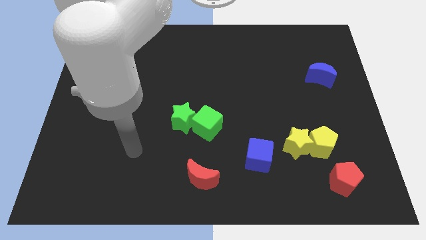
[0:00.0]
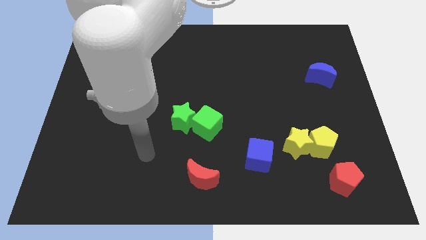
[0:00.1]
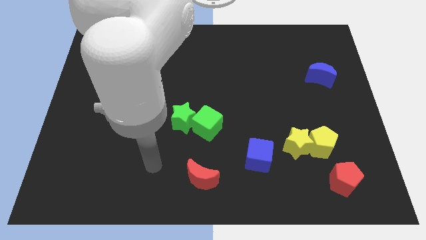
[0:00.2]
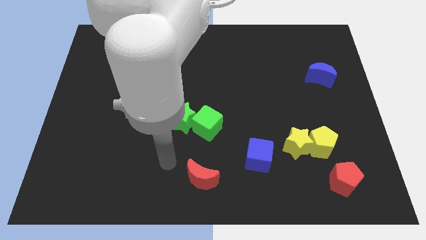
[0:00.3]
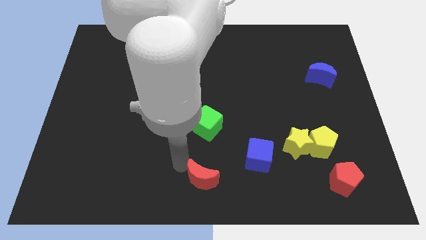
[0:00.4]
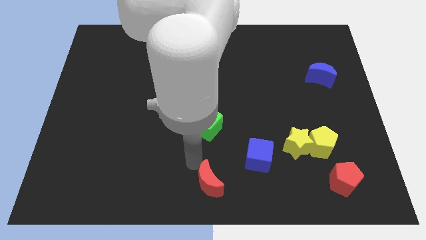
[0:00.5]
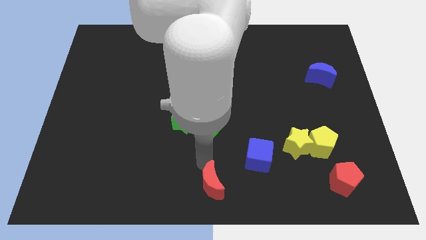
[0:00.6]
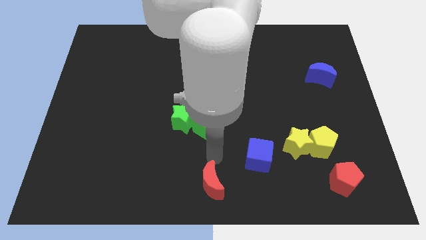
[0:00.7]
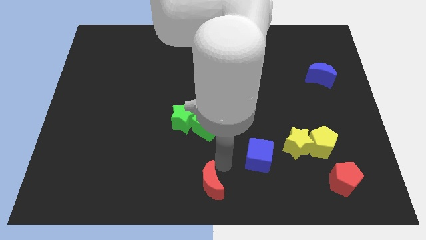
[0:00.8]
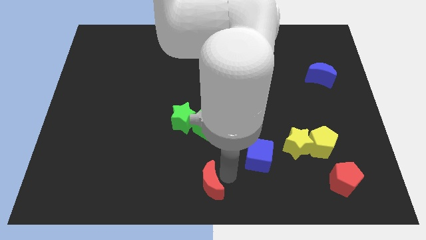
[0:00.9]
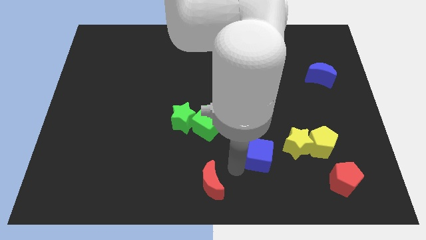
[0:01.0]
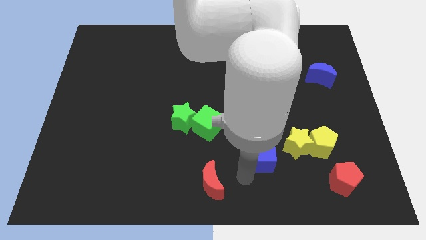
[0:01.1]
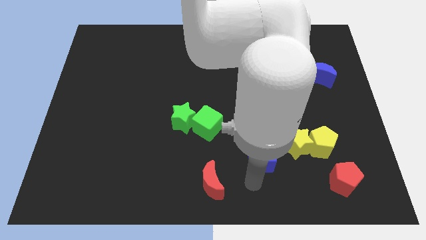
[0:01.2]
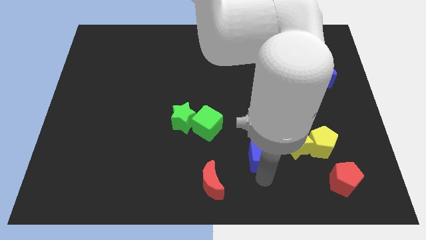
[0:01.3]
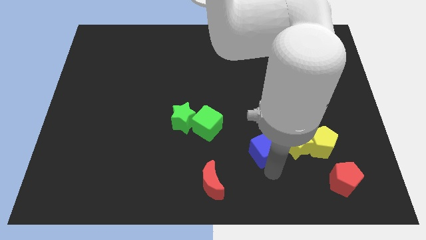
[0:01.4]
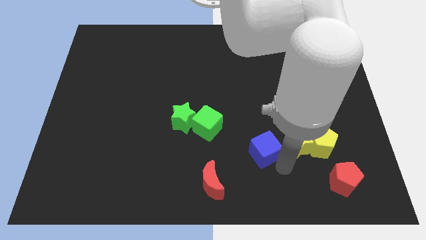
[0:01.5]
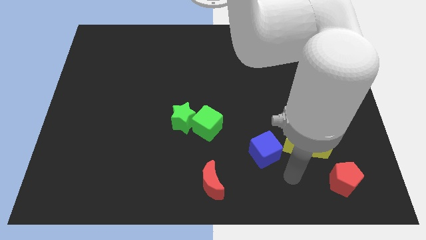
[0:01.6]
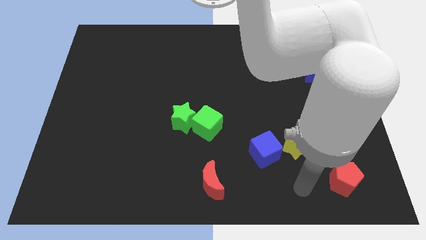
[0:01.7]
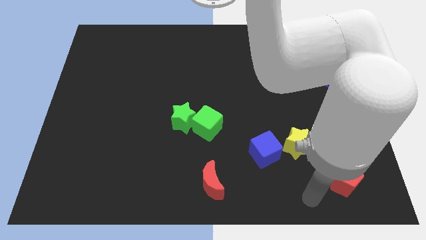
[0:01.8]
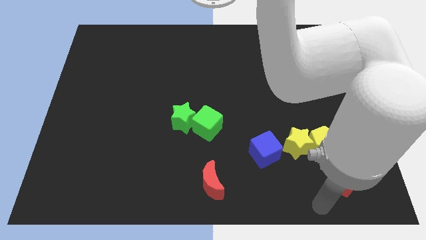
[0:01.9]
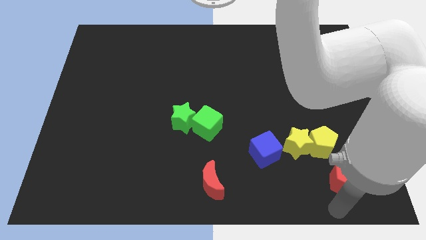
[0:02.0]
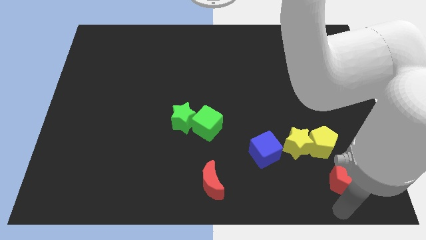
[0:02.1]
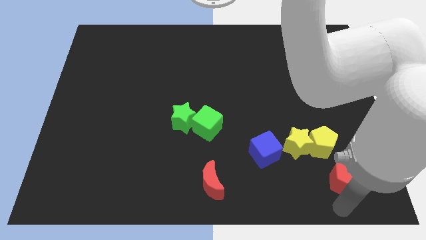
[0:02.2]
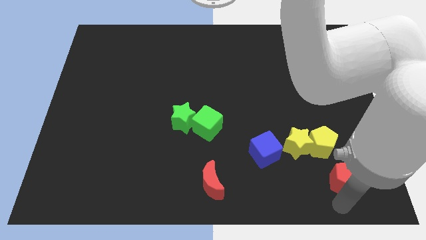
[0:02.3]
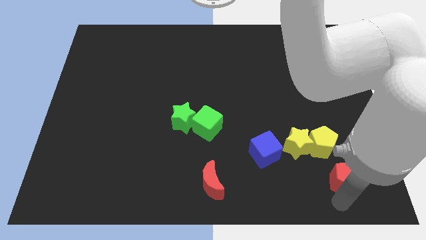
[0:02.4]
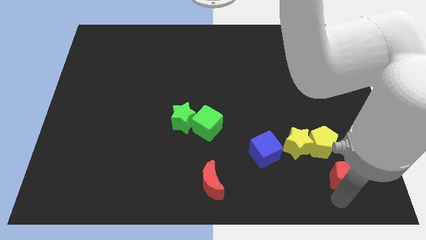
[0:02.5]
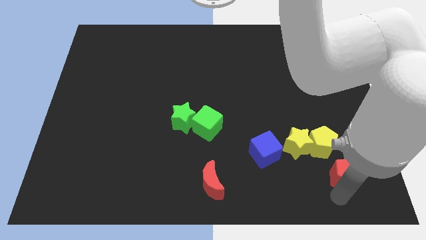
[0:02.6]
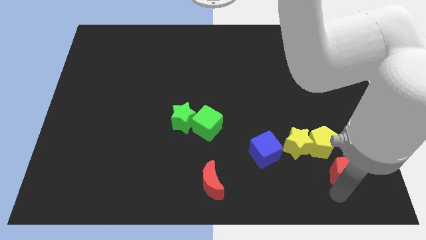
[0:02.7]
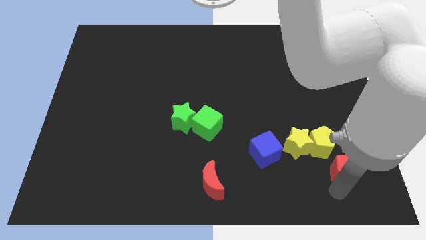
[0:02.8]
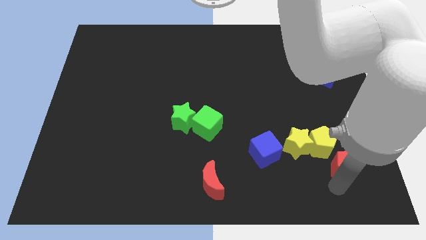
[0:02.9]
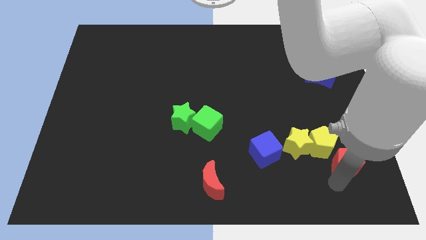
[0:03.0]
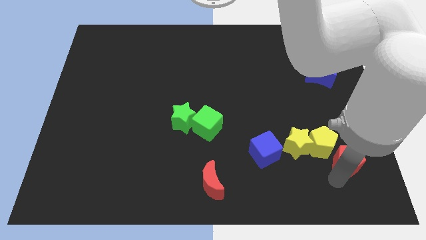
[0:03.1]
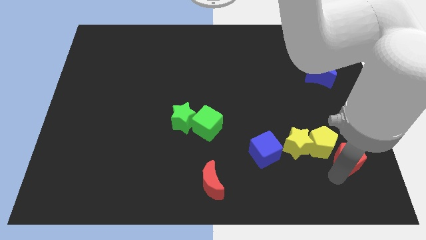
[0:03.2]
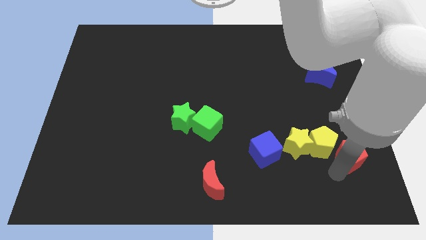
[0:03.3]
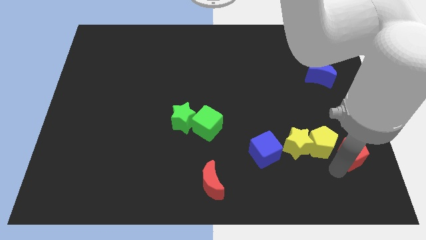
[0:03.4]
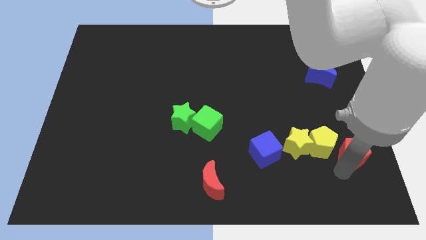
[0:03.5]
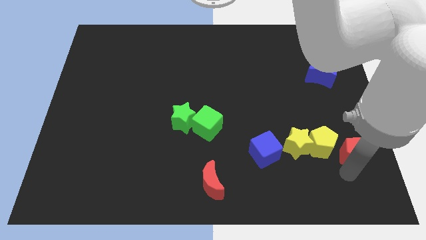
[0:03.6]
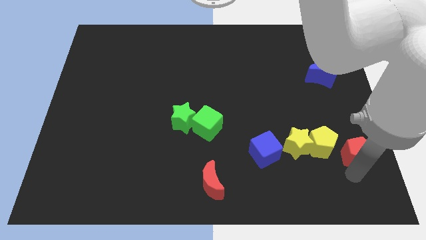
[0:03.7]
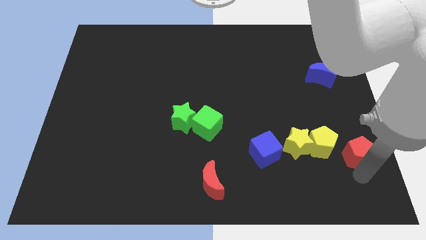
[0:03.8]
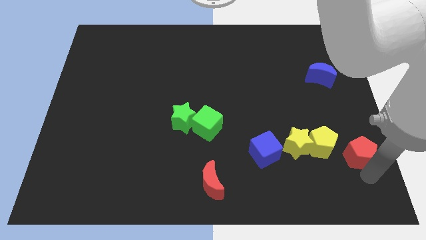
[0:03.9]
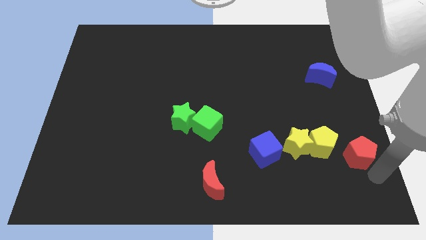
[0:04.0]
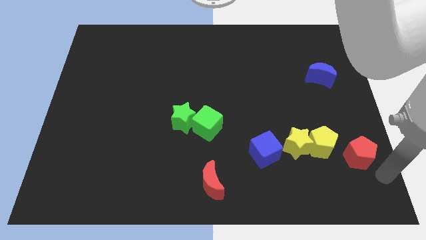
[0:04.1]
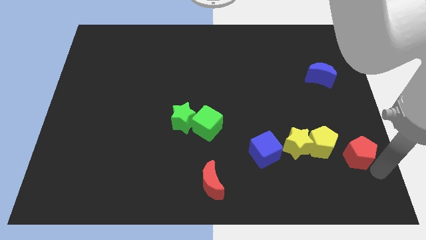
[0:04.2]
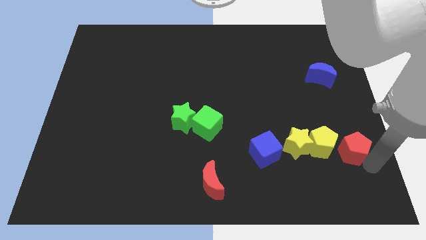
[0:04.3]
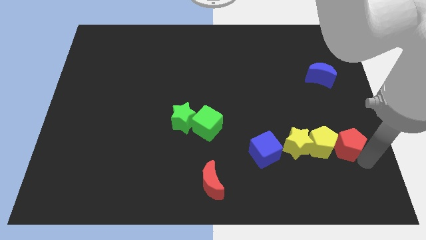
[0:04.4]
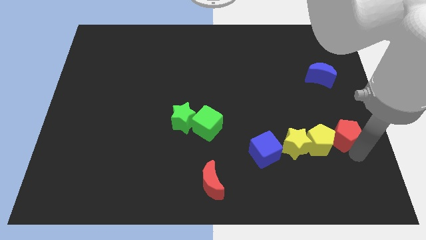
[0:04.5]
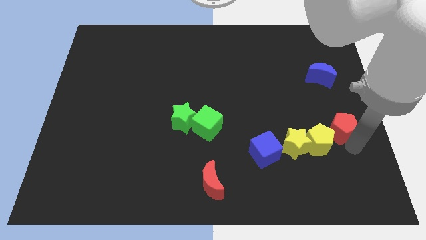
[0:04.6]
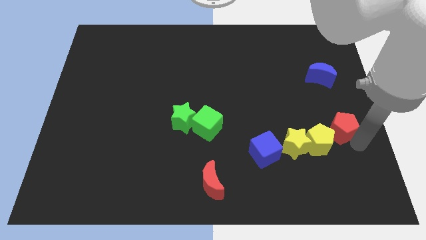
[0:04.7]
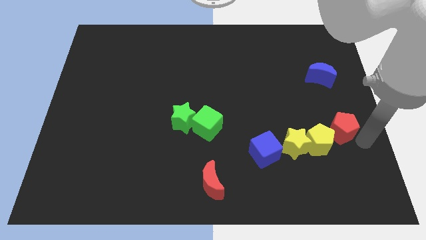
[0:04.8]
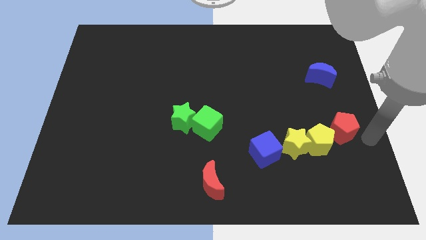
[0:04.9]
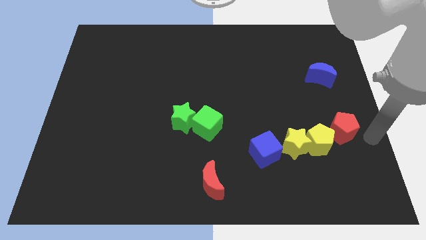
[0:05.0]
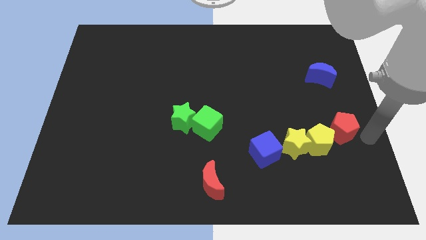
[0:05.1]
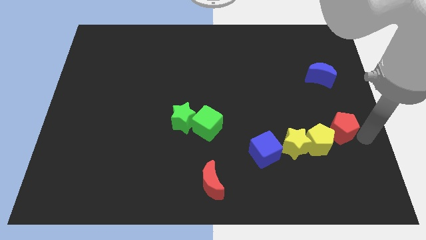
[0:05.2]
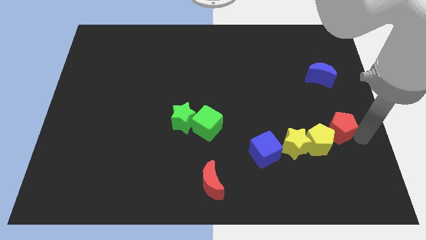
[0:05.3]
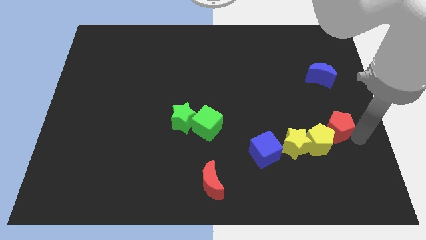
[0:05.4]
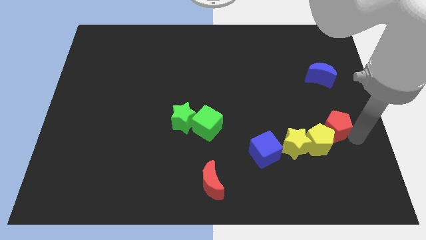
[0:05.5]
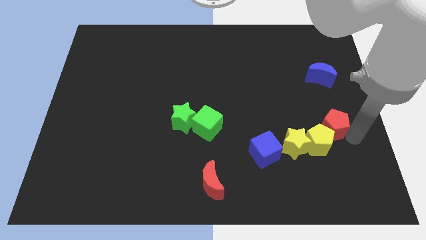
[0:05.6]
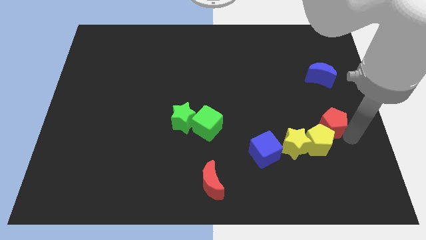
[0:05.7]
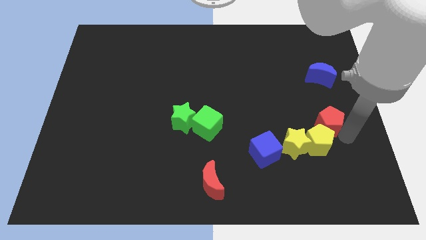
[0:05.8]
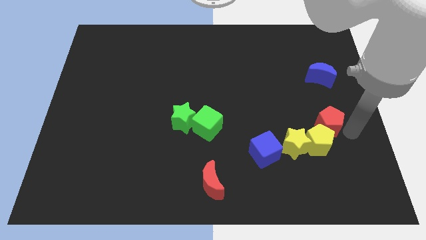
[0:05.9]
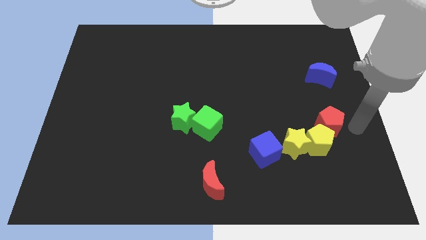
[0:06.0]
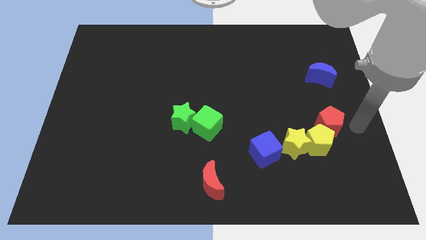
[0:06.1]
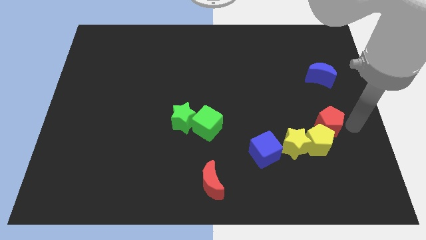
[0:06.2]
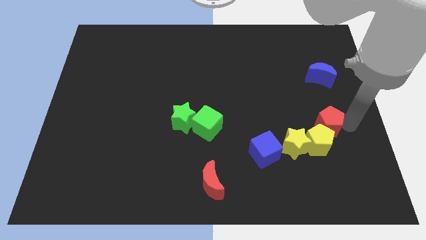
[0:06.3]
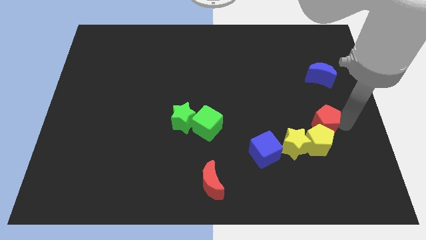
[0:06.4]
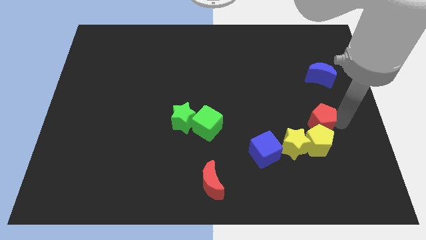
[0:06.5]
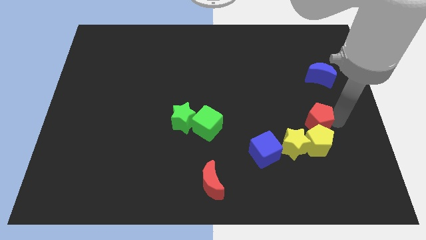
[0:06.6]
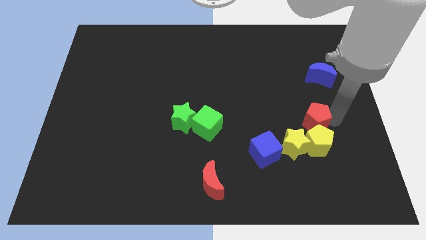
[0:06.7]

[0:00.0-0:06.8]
push the red pentagon diagonally up and to the left of the yellow pentagon

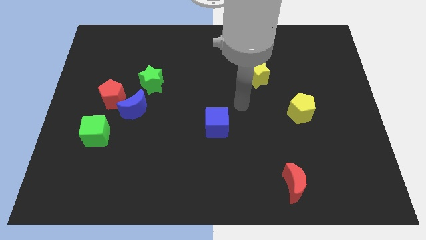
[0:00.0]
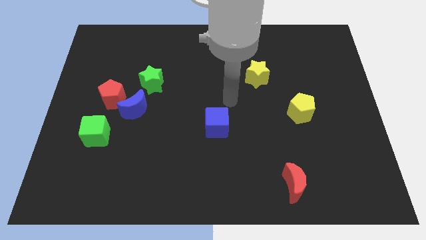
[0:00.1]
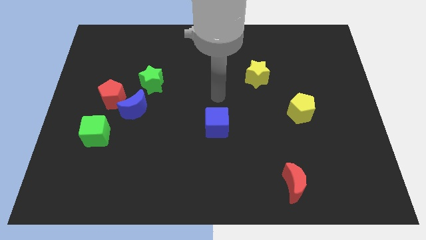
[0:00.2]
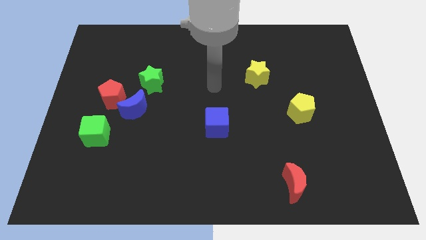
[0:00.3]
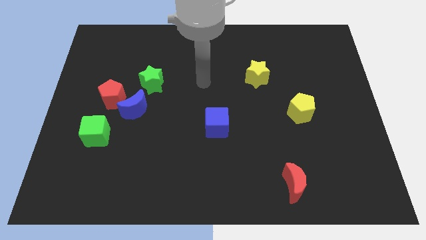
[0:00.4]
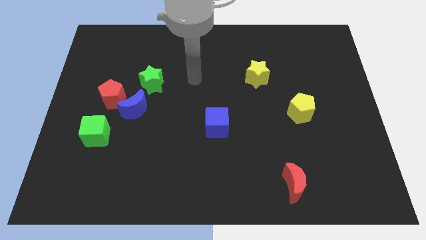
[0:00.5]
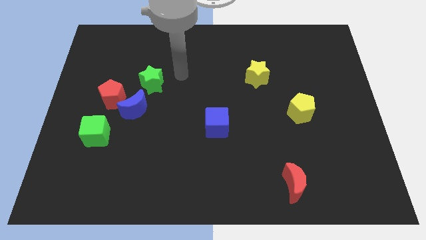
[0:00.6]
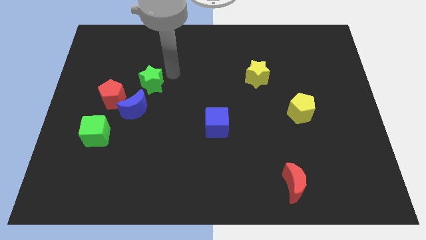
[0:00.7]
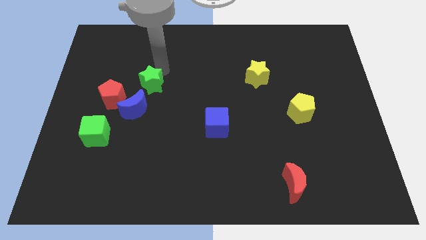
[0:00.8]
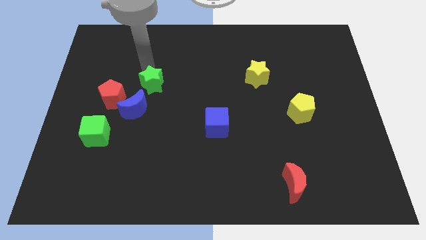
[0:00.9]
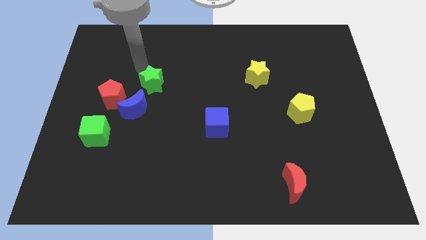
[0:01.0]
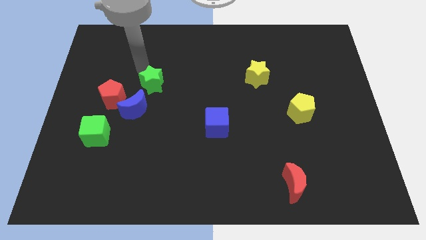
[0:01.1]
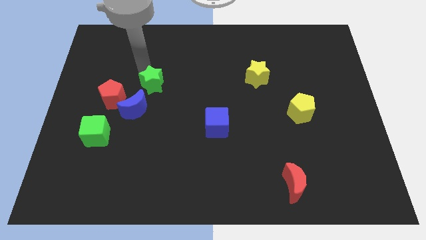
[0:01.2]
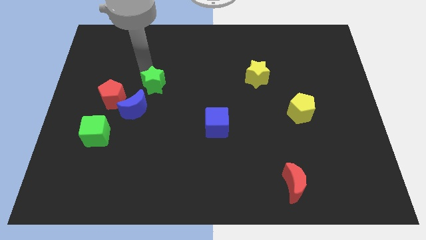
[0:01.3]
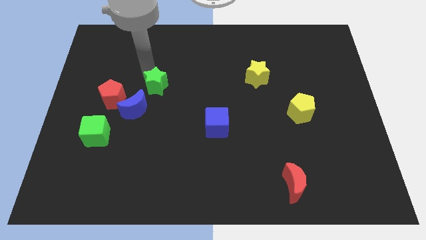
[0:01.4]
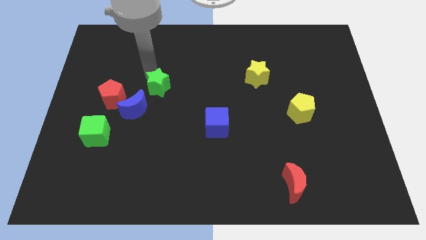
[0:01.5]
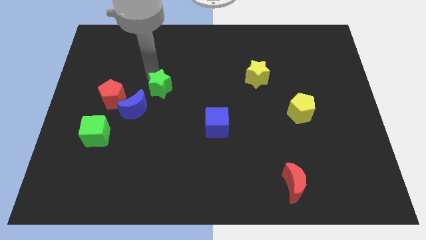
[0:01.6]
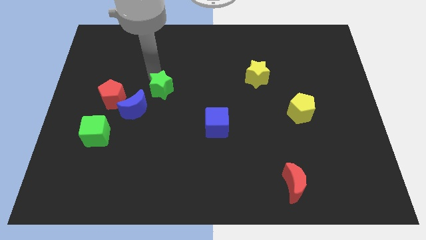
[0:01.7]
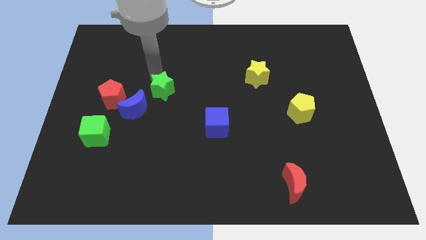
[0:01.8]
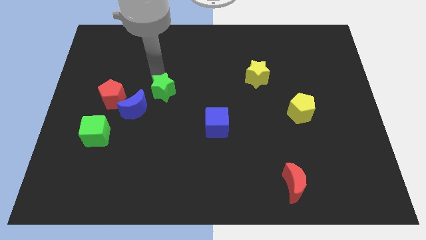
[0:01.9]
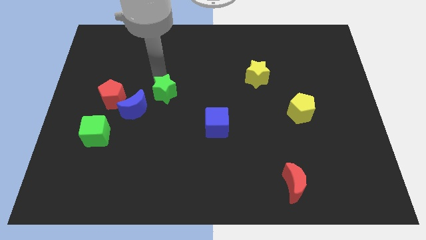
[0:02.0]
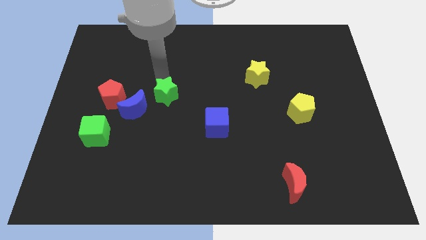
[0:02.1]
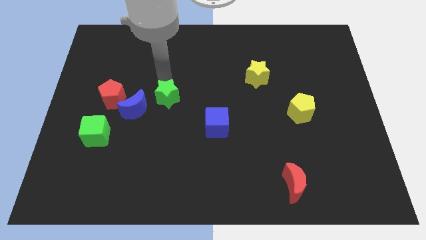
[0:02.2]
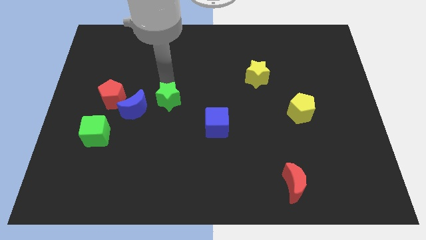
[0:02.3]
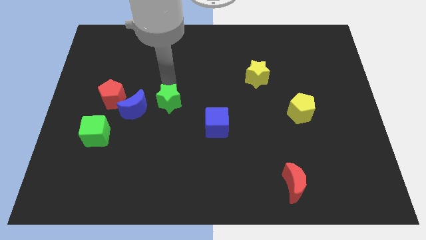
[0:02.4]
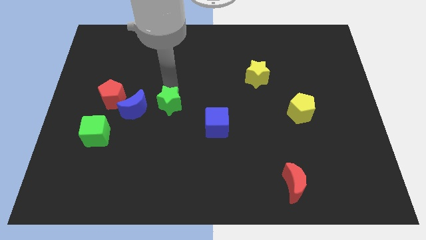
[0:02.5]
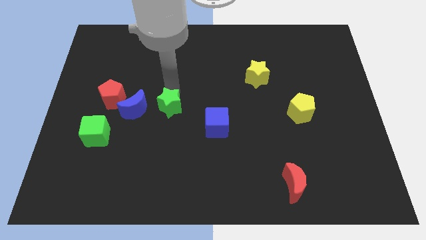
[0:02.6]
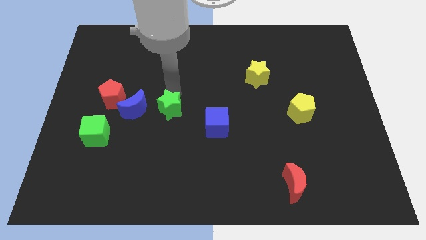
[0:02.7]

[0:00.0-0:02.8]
push the green star to the left side of the blue cube
